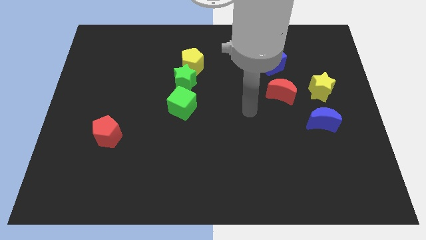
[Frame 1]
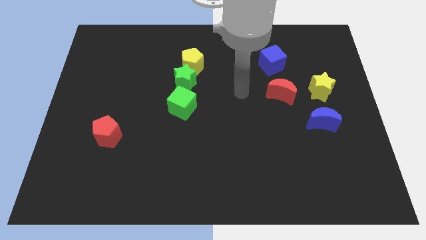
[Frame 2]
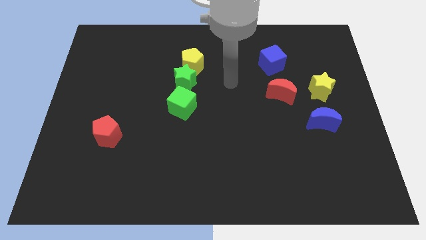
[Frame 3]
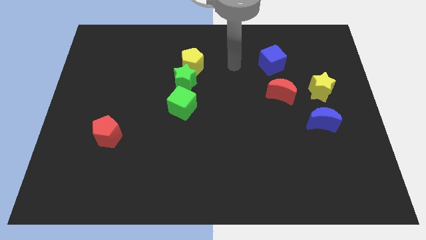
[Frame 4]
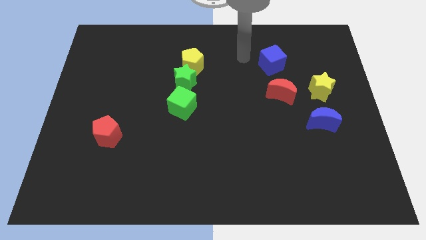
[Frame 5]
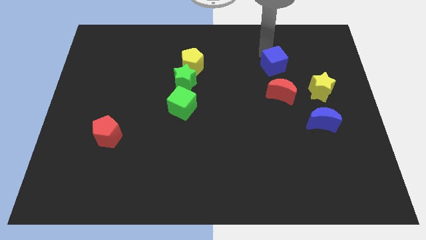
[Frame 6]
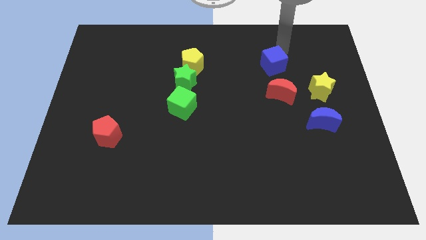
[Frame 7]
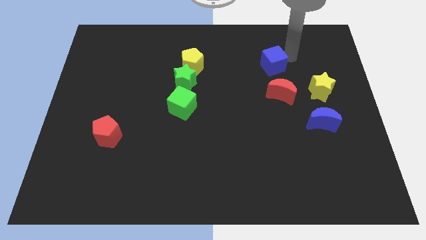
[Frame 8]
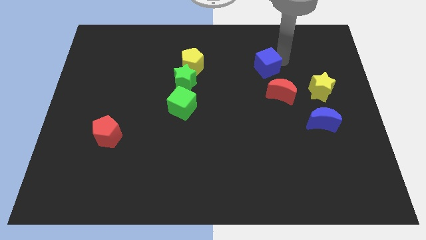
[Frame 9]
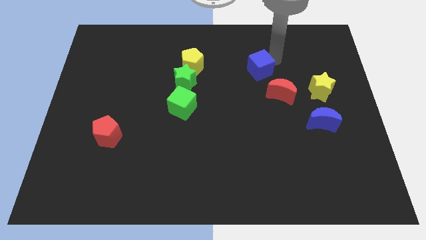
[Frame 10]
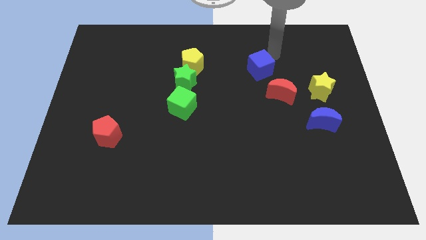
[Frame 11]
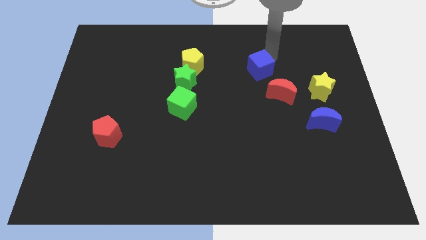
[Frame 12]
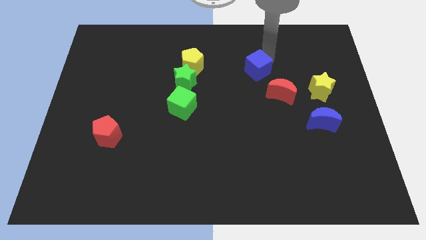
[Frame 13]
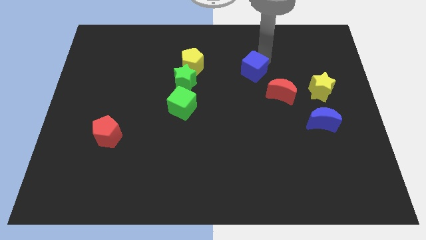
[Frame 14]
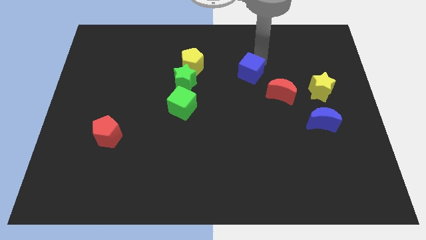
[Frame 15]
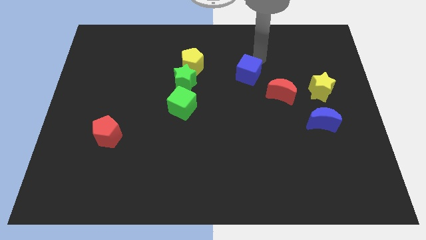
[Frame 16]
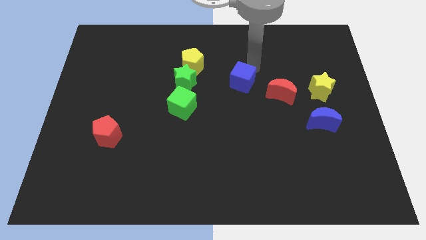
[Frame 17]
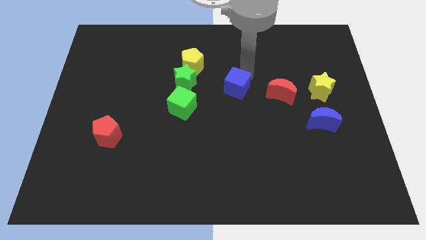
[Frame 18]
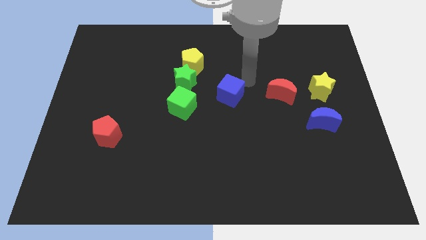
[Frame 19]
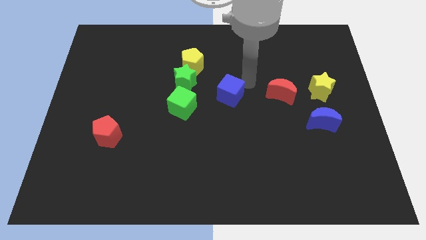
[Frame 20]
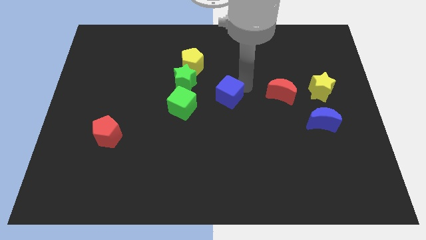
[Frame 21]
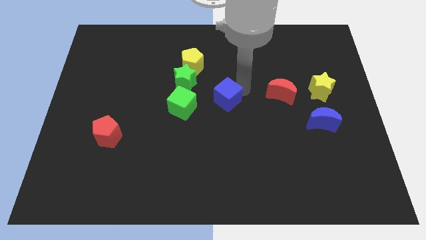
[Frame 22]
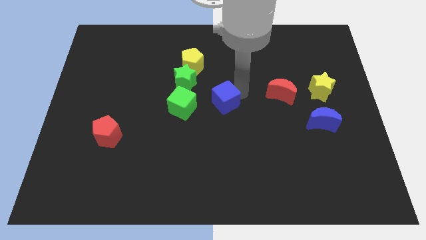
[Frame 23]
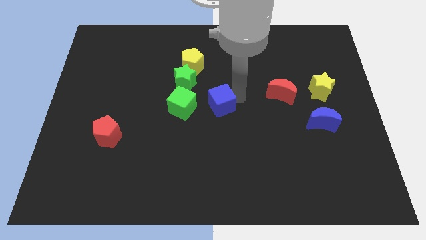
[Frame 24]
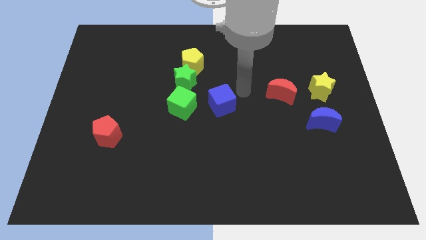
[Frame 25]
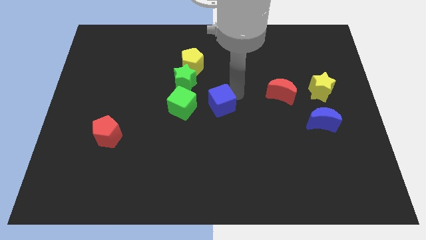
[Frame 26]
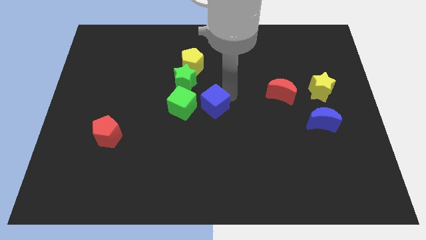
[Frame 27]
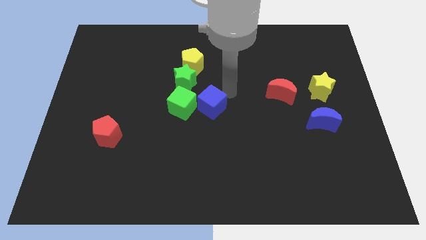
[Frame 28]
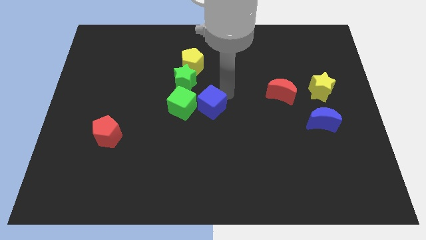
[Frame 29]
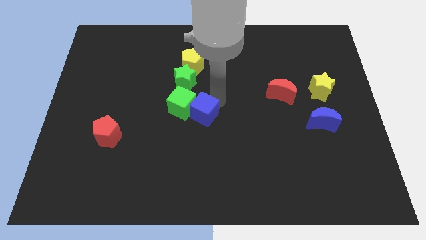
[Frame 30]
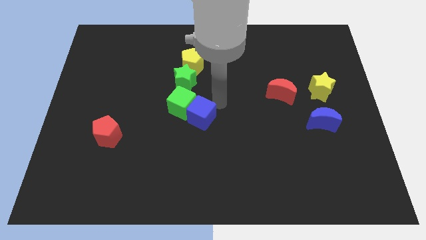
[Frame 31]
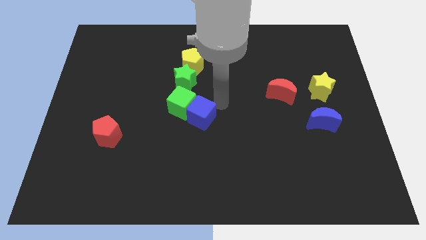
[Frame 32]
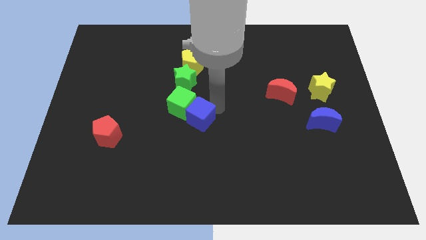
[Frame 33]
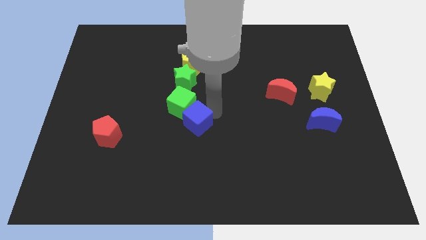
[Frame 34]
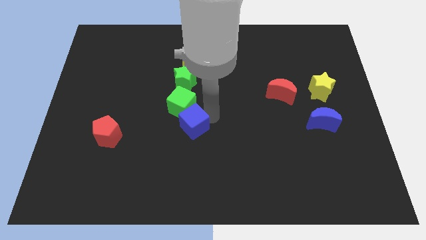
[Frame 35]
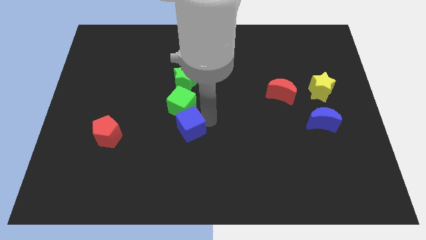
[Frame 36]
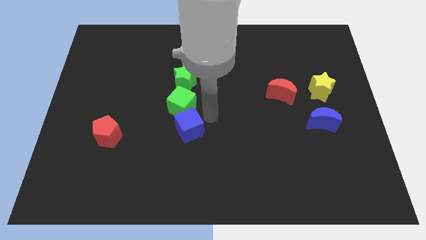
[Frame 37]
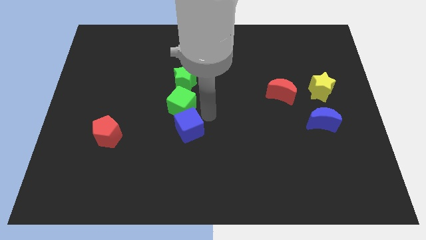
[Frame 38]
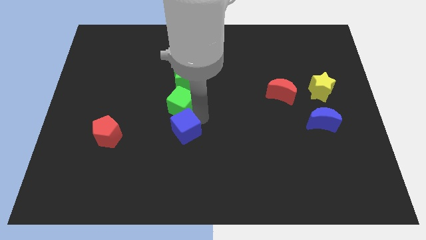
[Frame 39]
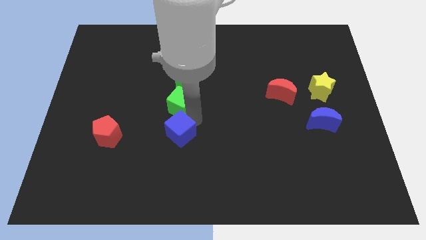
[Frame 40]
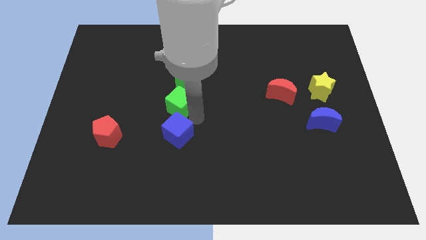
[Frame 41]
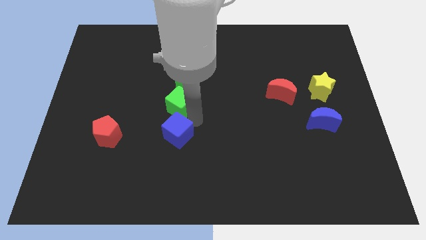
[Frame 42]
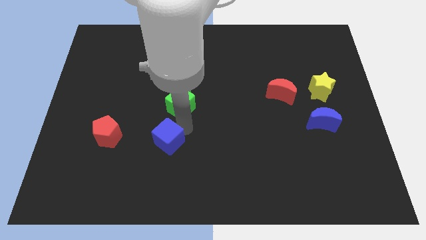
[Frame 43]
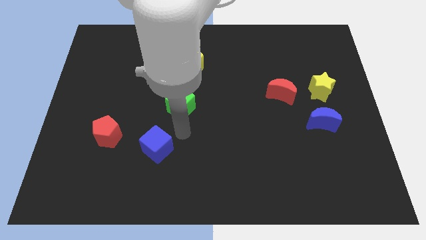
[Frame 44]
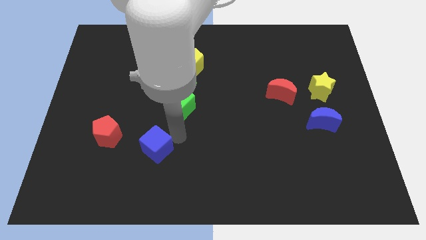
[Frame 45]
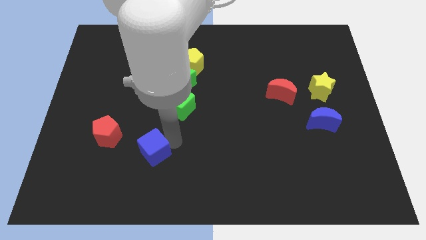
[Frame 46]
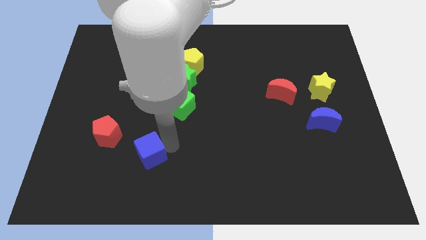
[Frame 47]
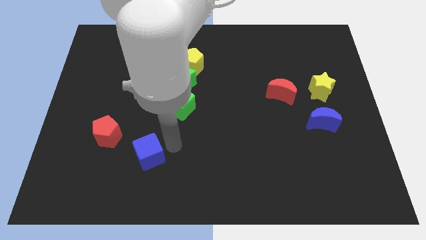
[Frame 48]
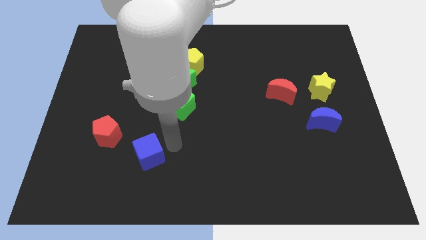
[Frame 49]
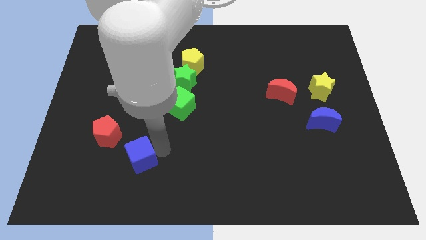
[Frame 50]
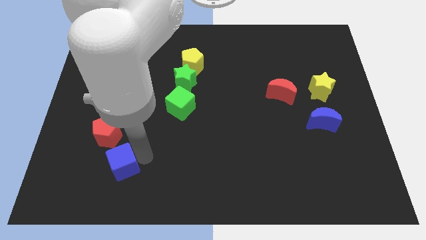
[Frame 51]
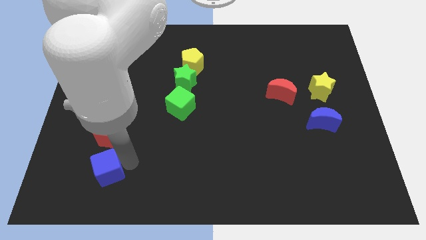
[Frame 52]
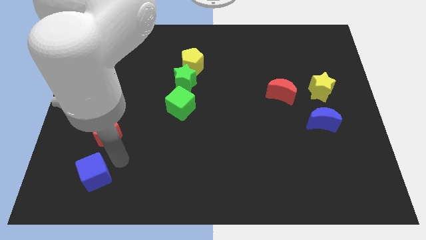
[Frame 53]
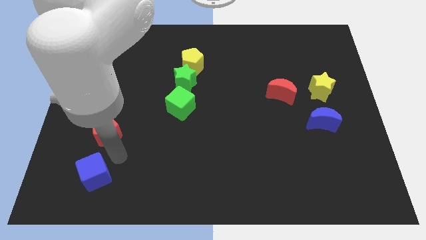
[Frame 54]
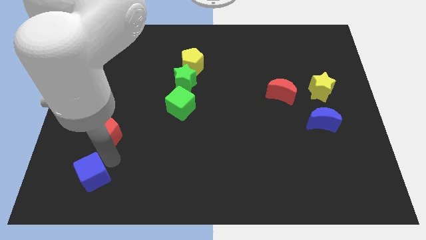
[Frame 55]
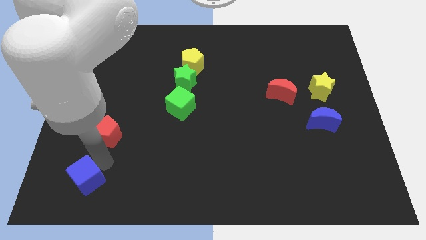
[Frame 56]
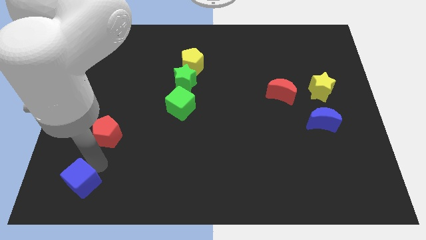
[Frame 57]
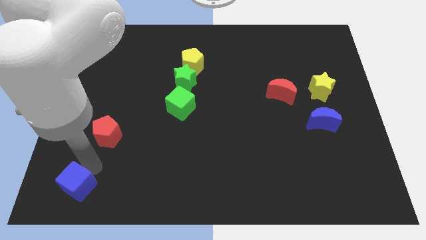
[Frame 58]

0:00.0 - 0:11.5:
move the blue cube to the bottom left corner

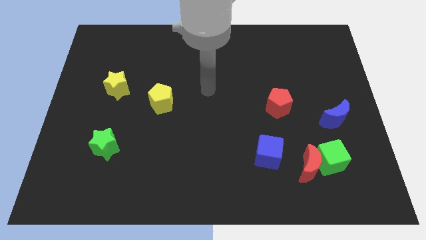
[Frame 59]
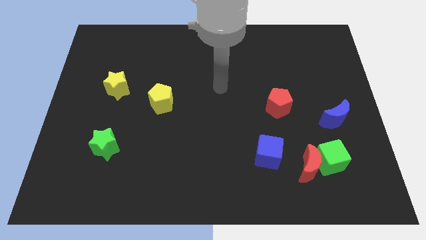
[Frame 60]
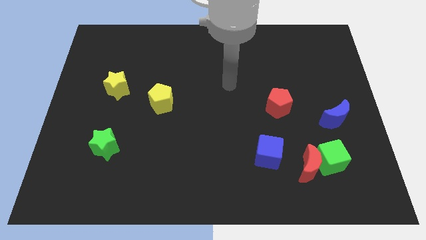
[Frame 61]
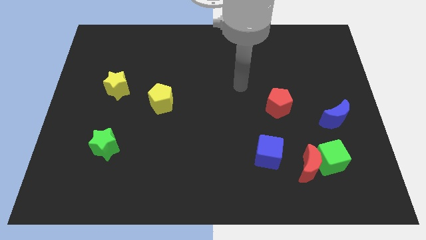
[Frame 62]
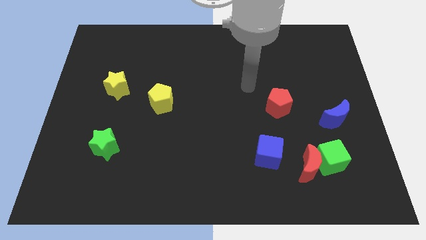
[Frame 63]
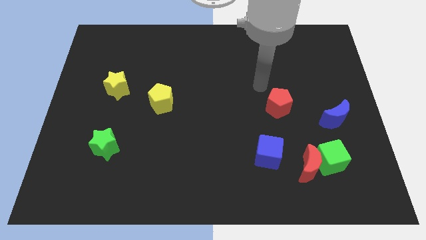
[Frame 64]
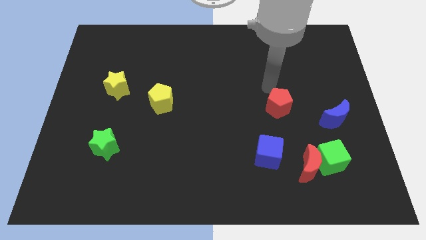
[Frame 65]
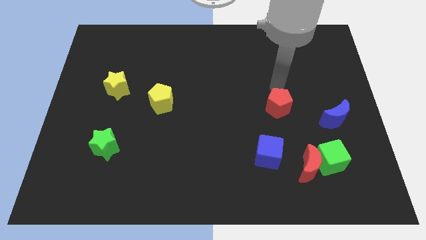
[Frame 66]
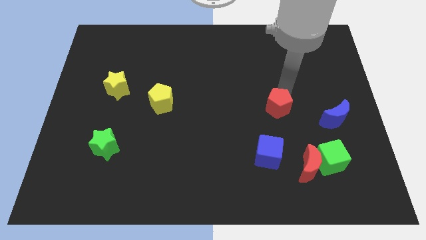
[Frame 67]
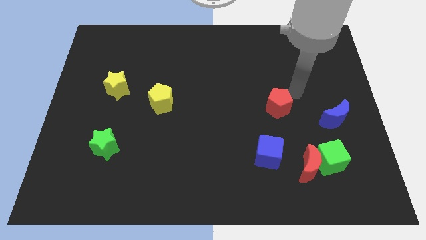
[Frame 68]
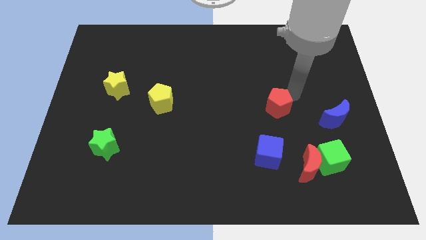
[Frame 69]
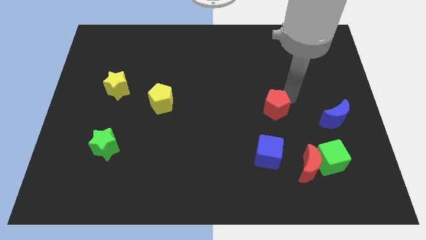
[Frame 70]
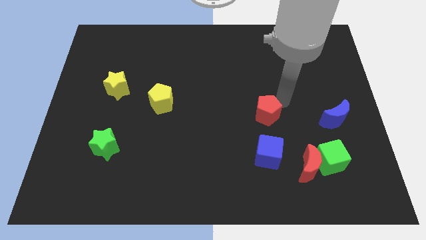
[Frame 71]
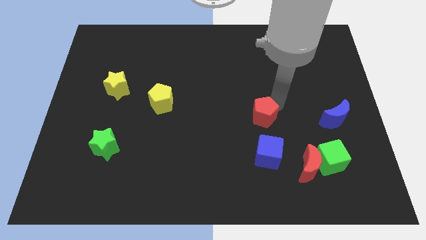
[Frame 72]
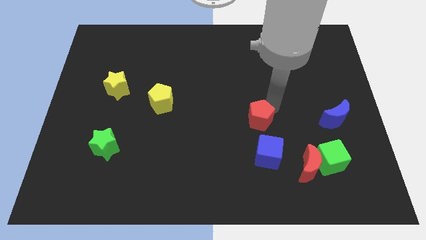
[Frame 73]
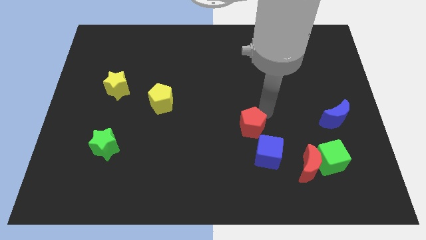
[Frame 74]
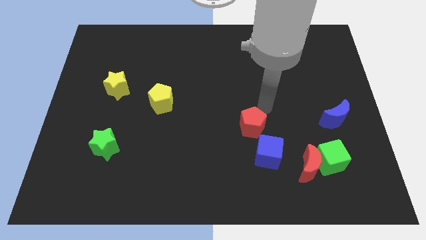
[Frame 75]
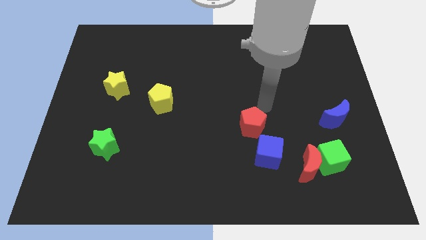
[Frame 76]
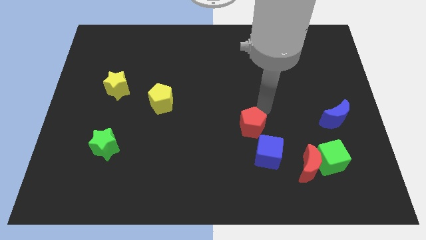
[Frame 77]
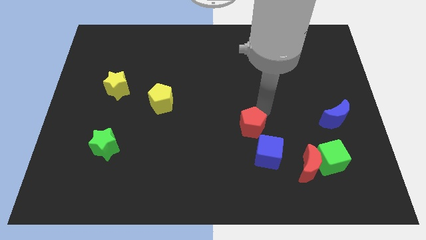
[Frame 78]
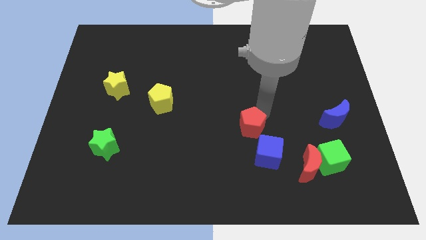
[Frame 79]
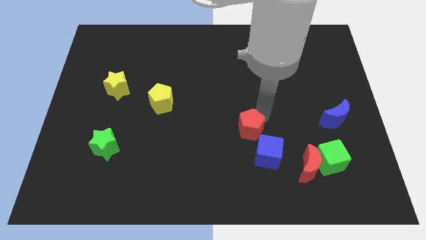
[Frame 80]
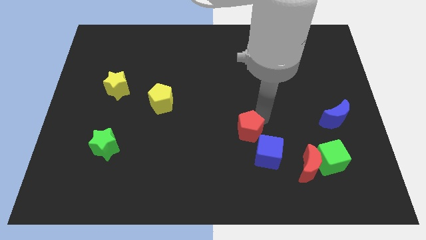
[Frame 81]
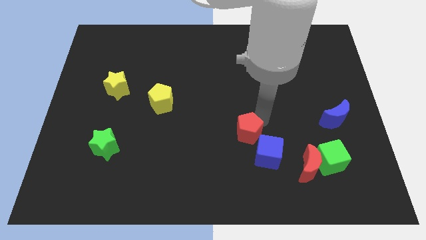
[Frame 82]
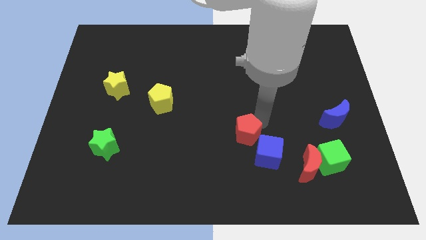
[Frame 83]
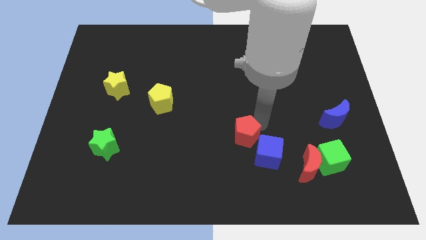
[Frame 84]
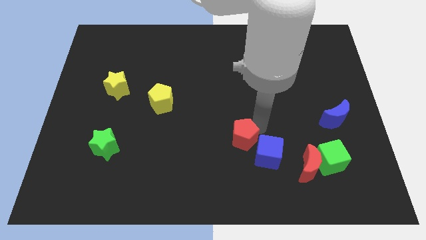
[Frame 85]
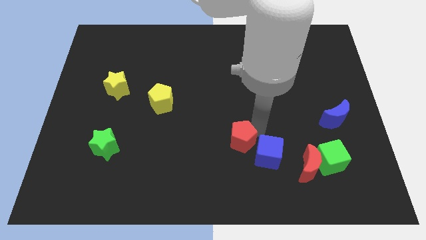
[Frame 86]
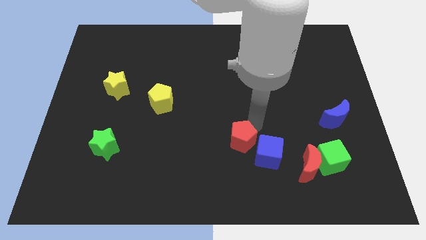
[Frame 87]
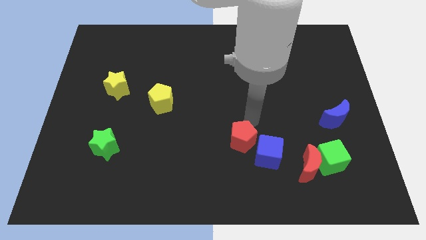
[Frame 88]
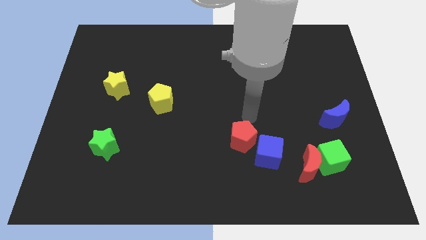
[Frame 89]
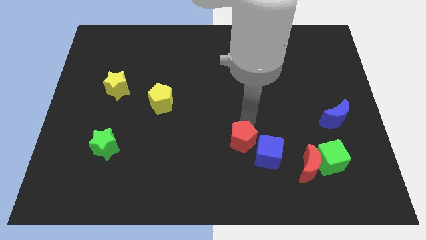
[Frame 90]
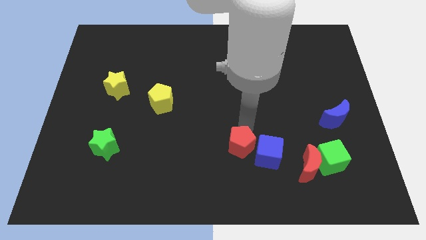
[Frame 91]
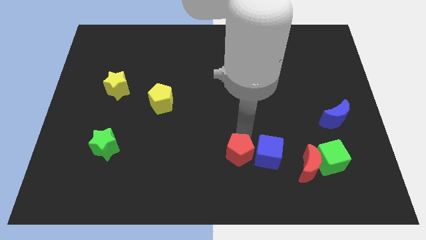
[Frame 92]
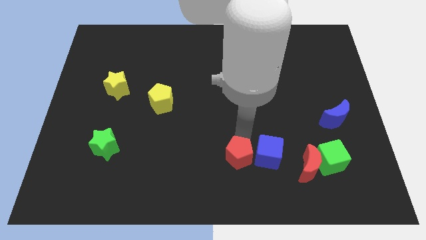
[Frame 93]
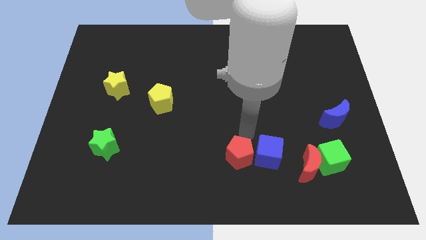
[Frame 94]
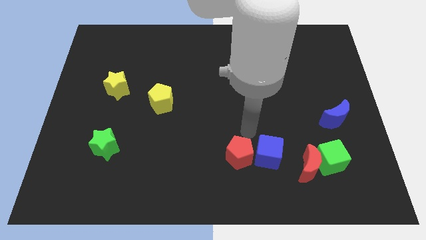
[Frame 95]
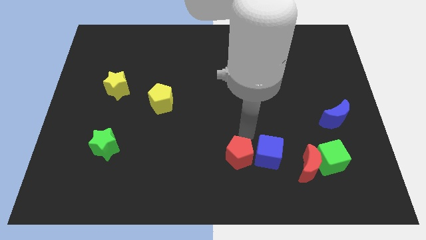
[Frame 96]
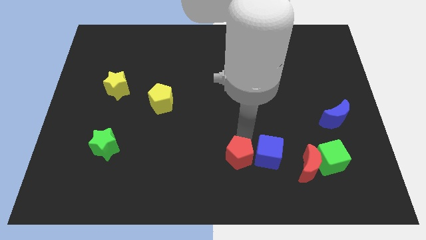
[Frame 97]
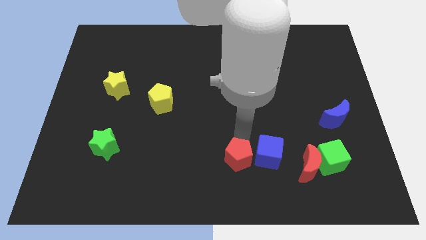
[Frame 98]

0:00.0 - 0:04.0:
put the red pentagon to the bottom side
